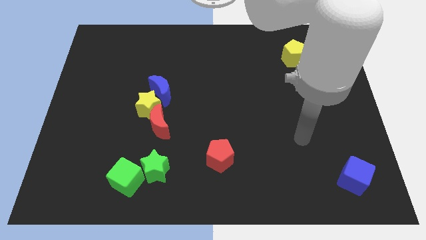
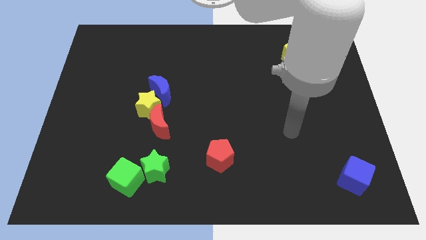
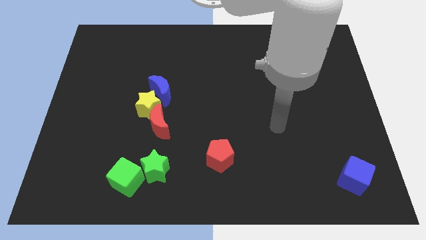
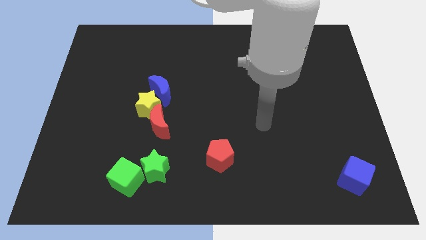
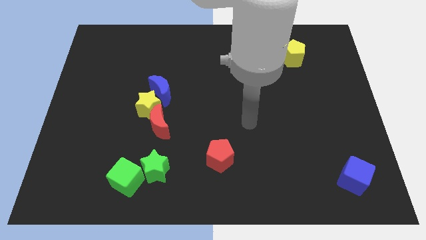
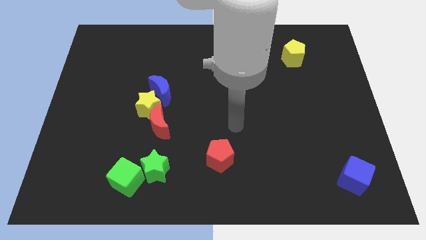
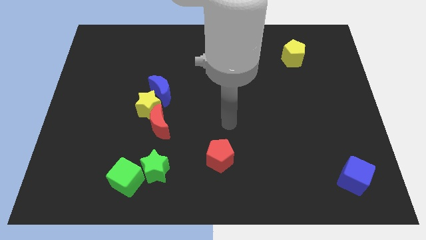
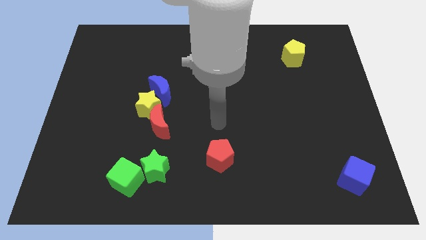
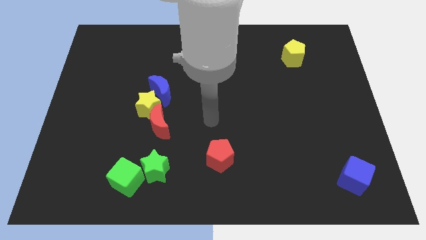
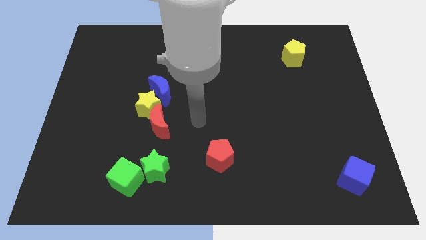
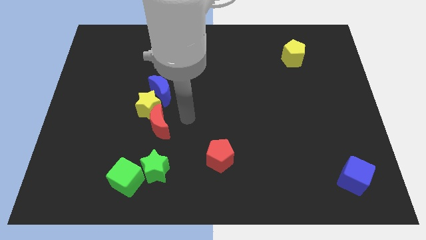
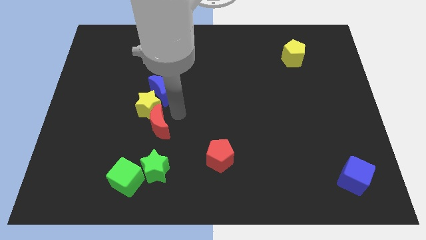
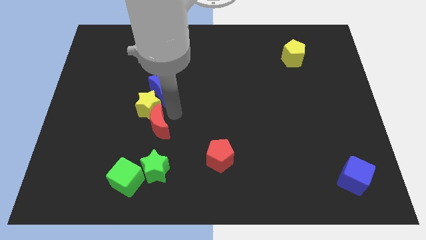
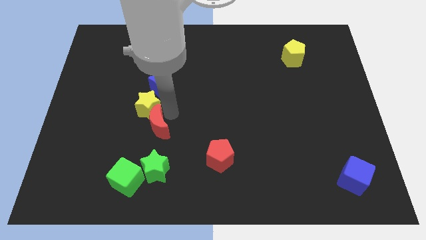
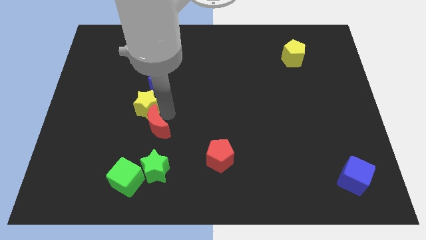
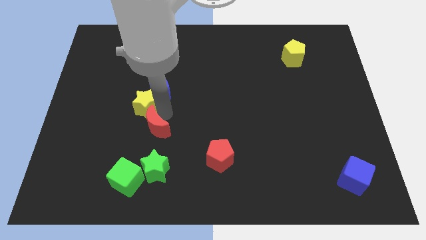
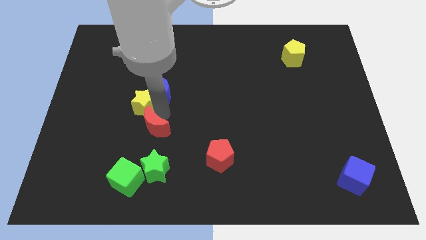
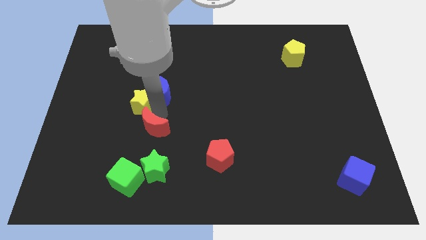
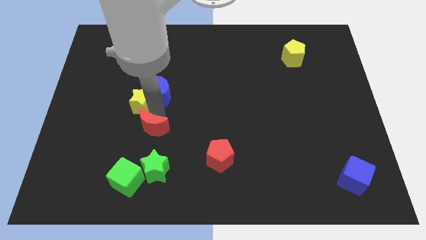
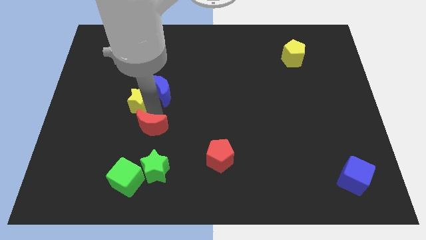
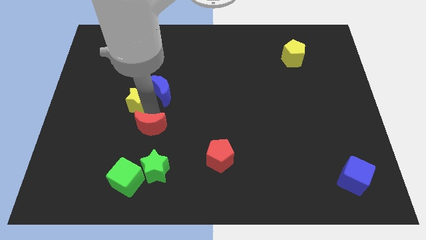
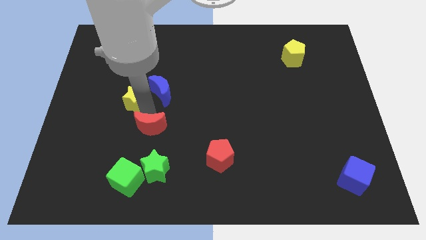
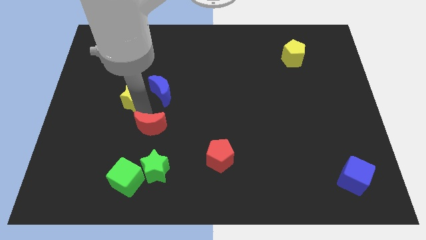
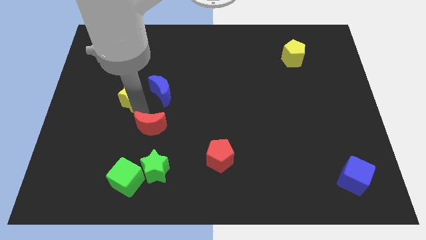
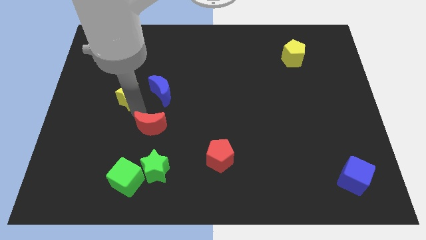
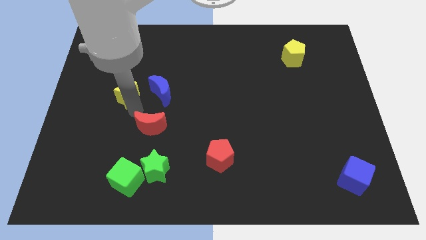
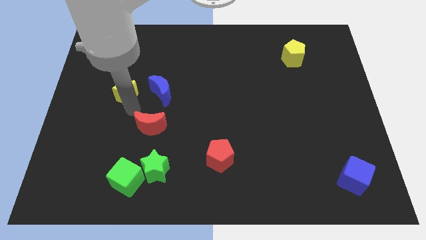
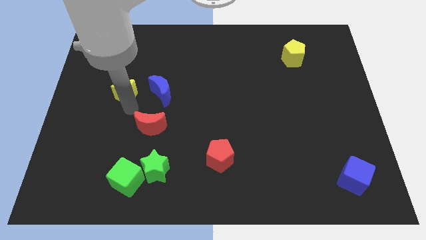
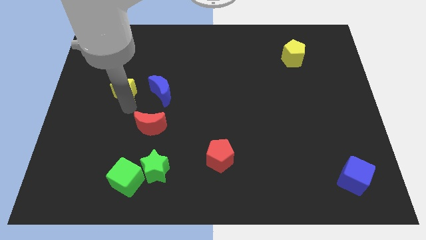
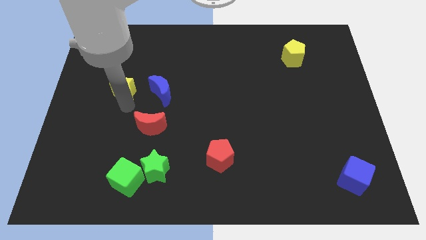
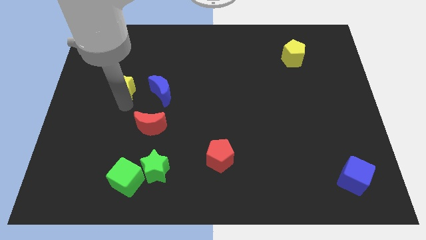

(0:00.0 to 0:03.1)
move the yellow star away from the red moon and blue moon

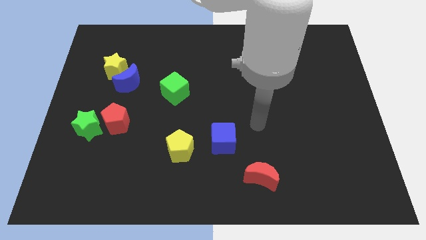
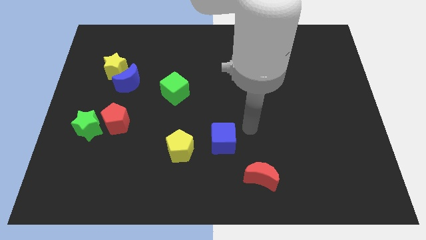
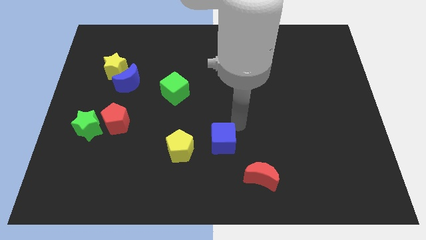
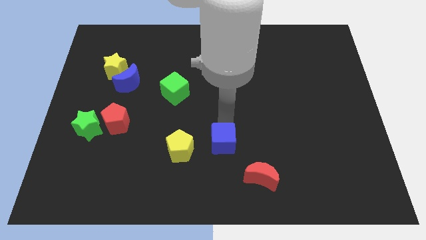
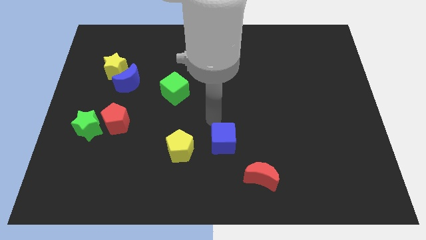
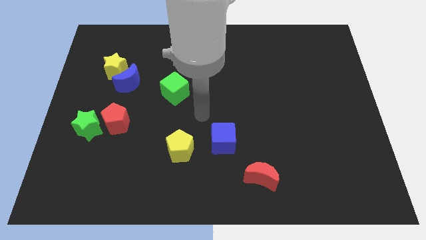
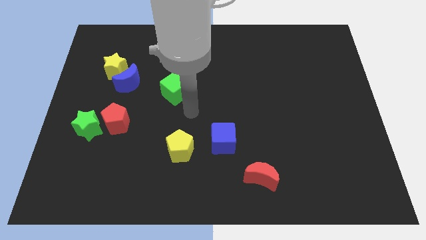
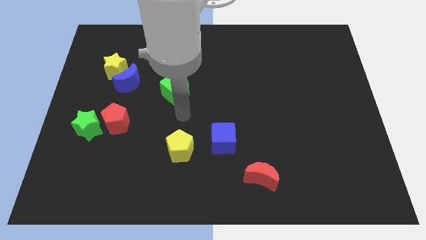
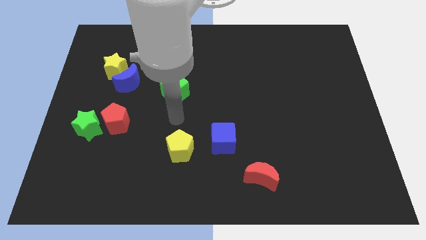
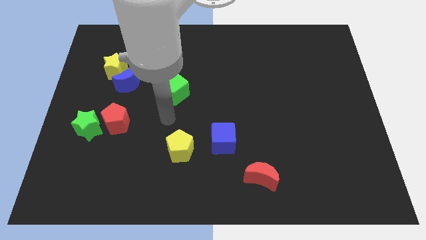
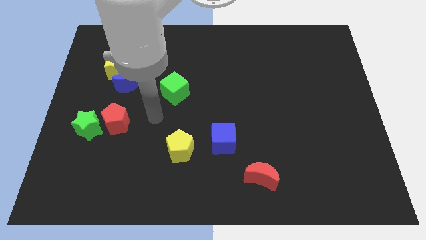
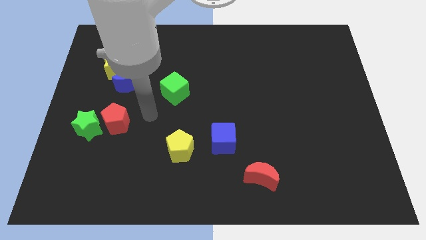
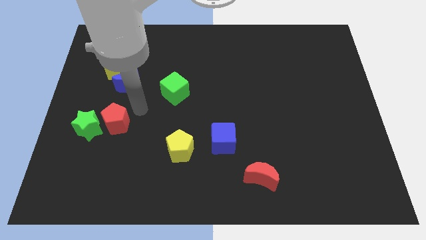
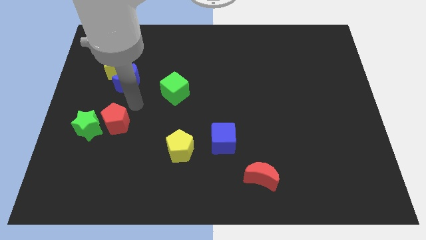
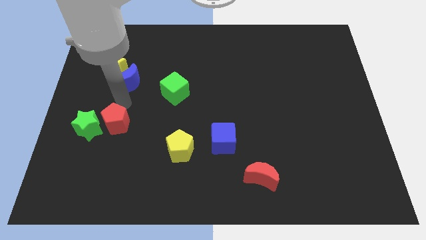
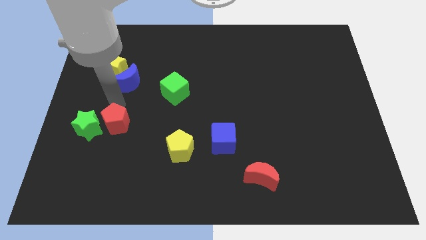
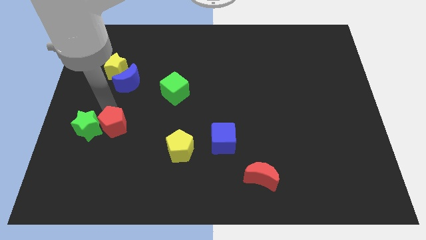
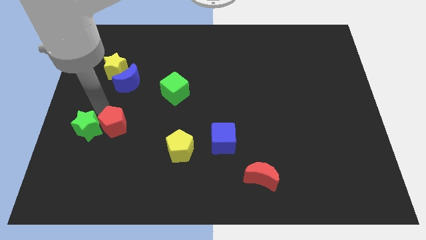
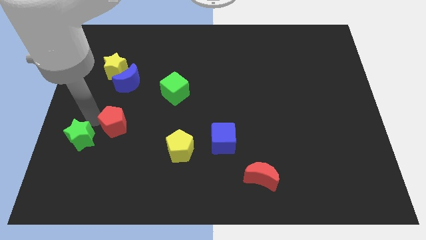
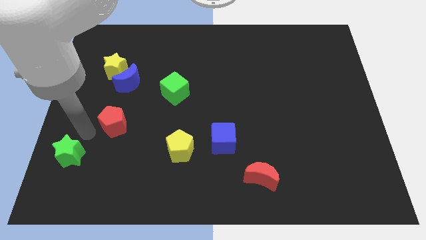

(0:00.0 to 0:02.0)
move the red pentagon away from the green star

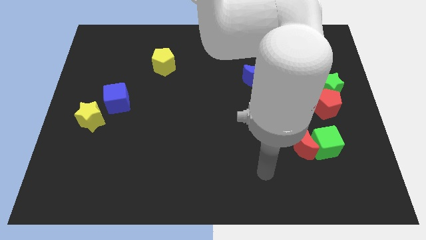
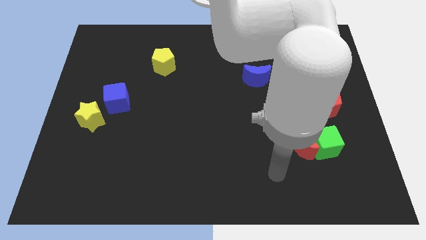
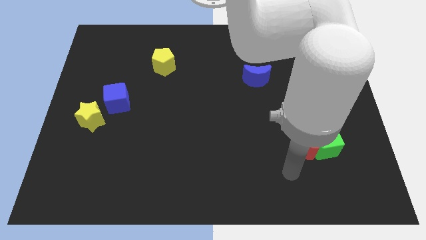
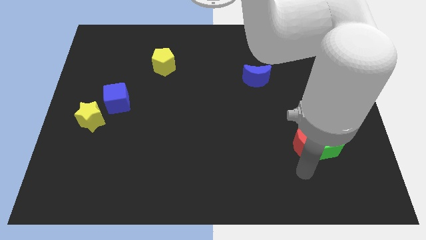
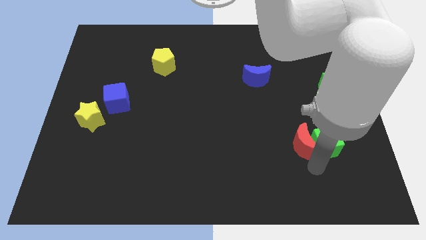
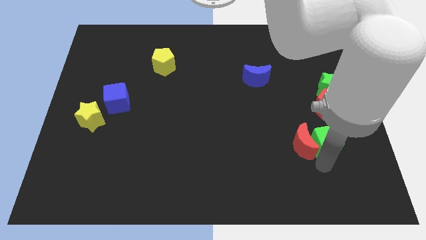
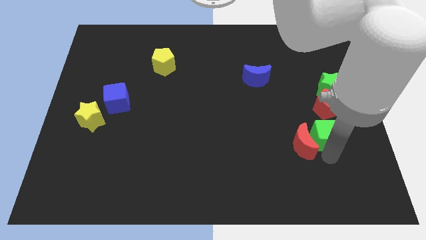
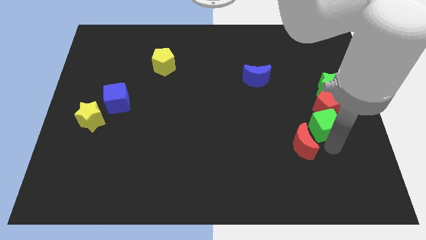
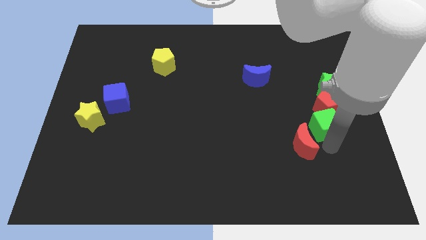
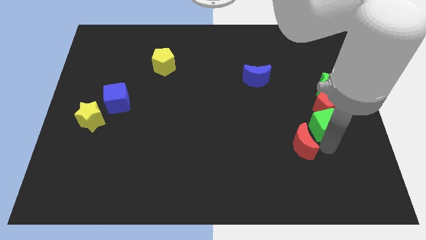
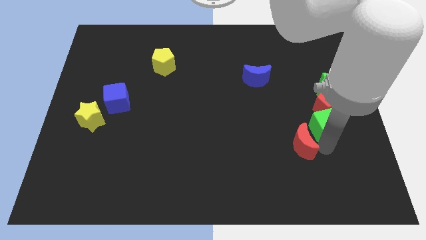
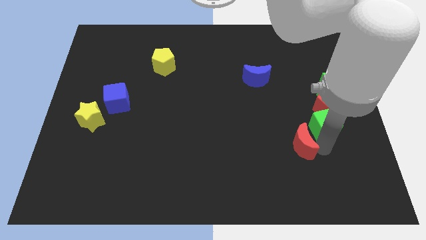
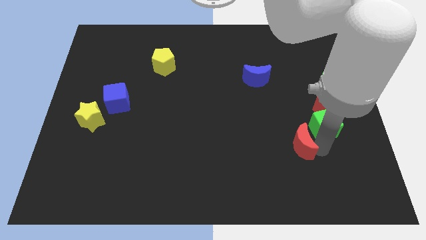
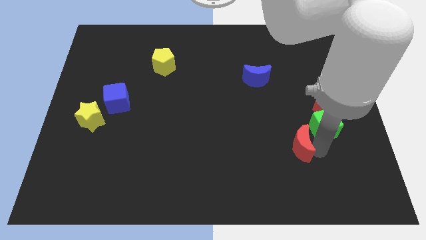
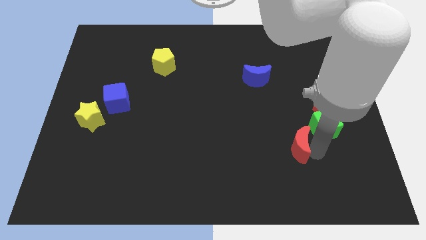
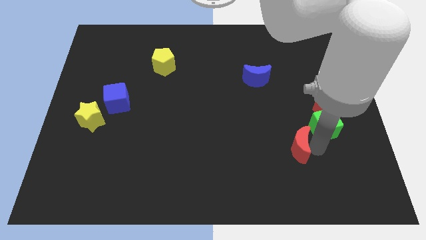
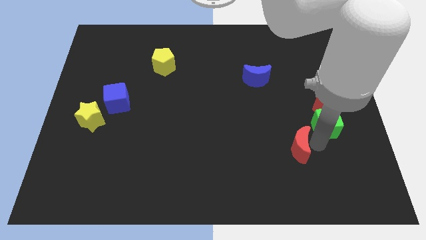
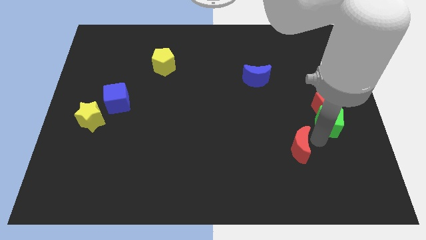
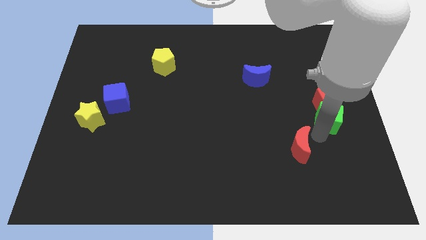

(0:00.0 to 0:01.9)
separate the red moon from the green cube

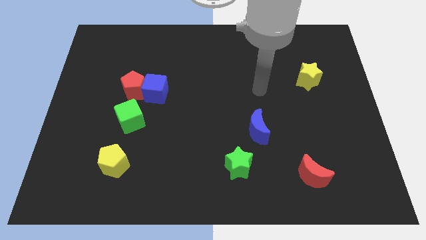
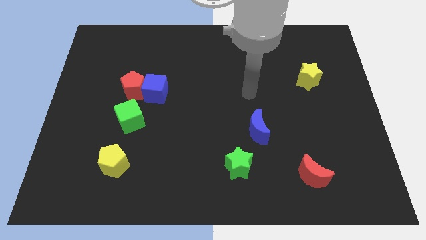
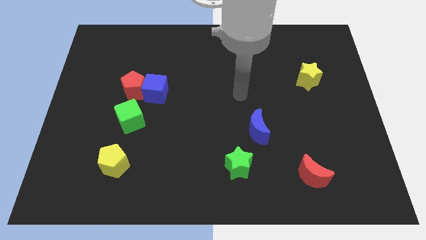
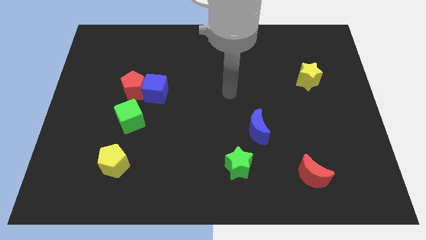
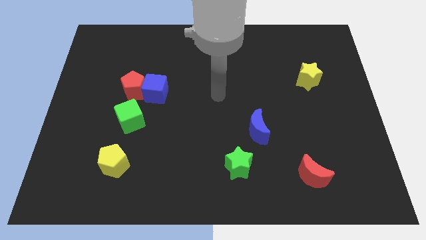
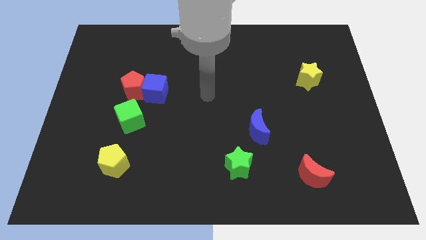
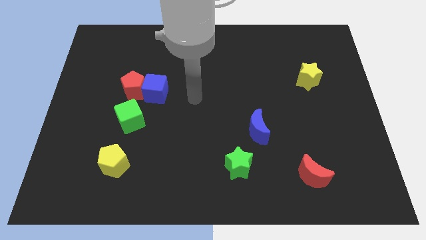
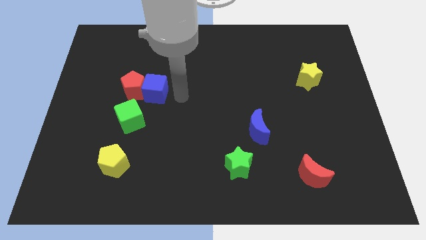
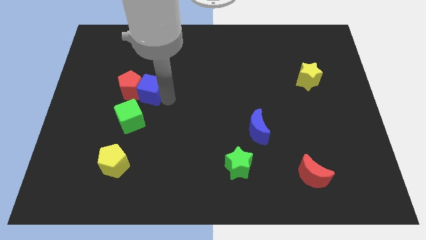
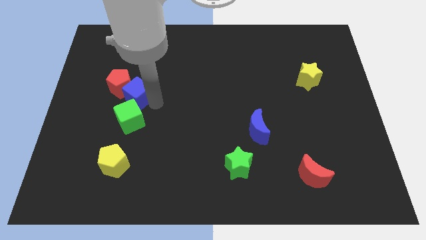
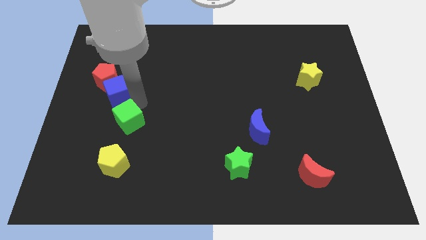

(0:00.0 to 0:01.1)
pull the red pentagon apart from the blue cube and green cube

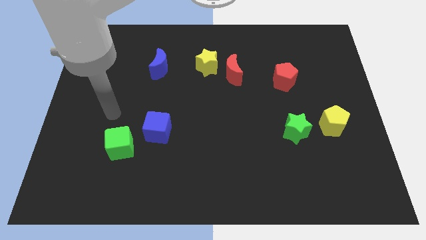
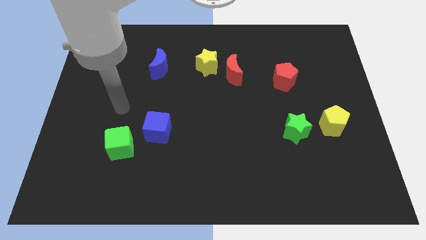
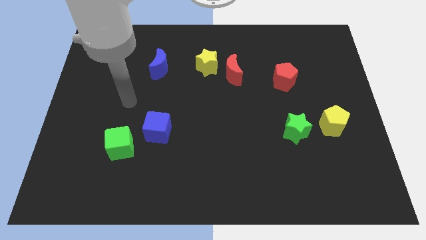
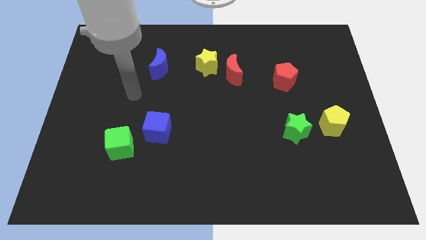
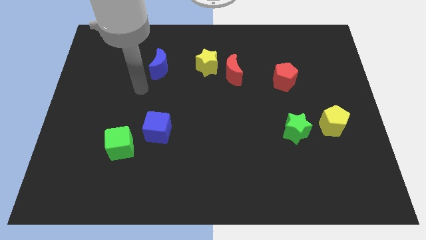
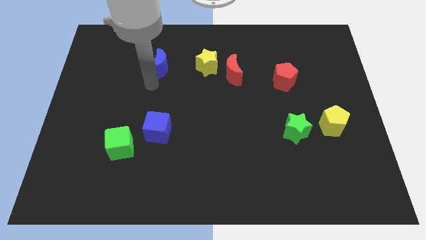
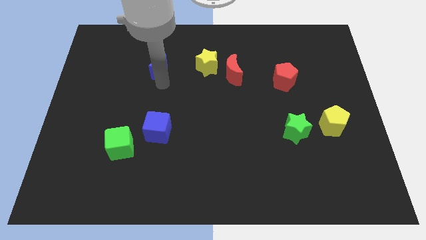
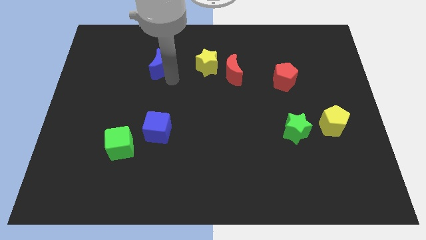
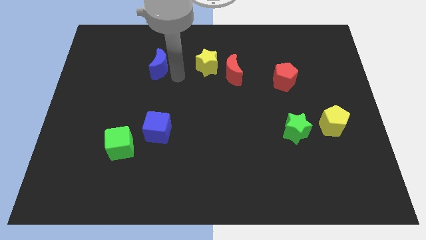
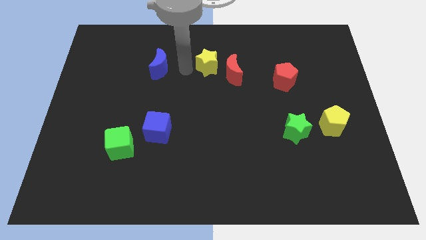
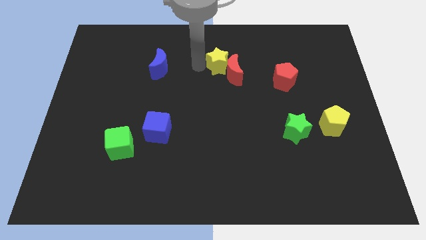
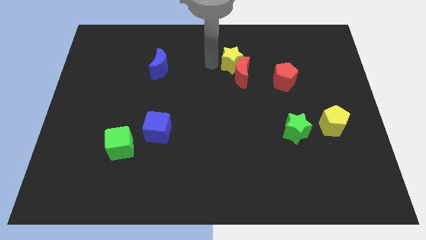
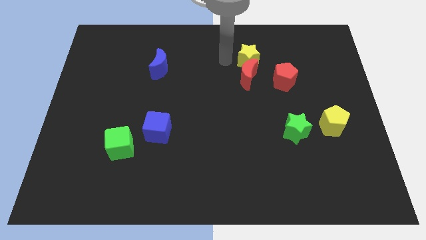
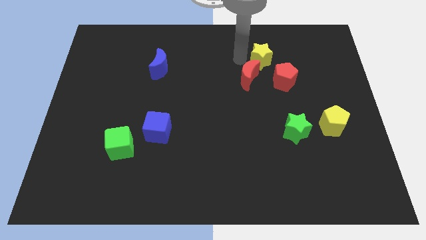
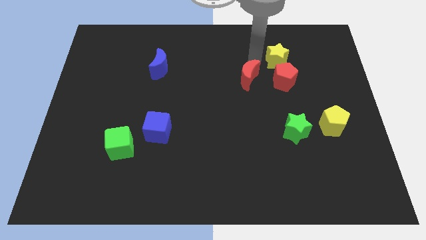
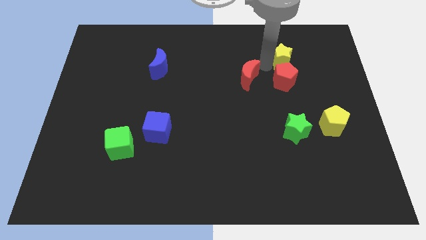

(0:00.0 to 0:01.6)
separate the red moon from the yellow star
